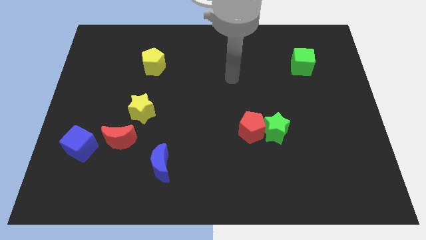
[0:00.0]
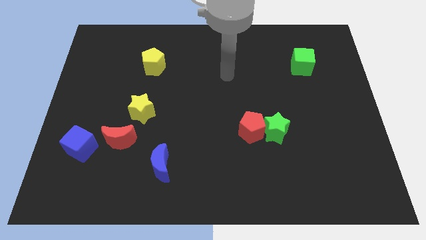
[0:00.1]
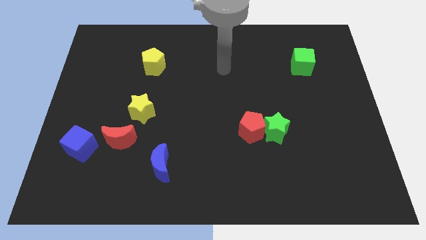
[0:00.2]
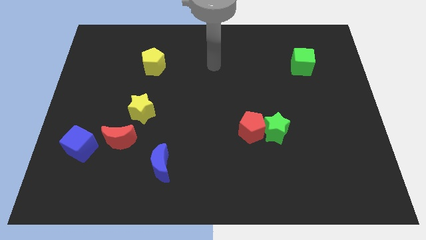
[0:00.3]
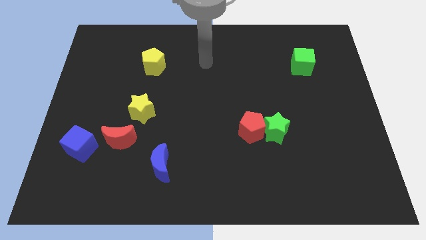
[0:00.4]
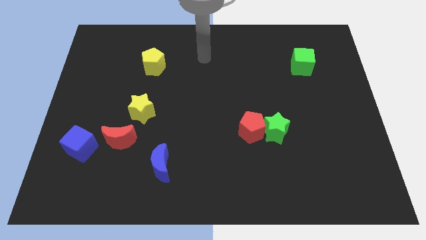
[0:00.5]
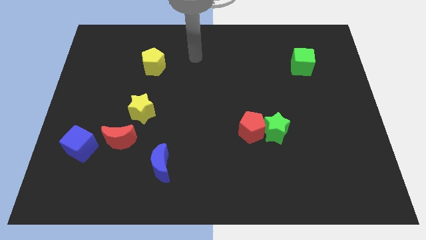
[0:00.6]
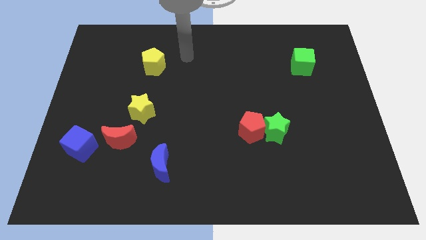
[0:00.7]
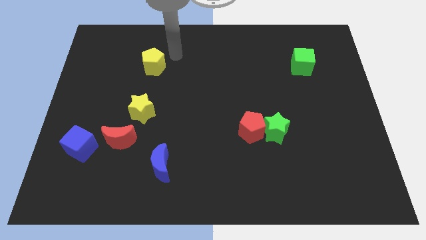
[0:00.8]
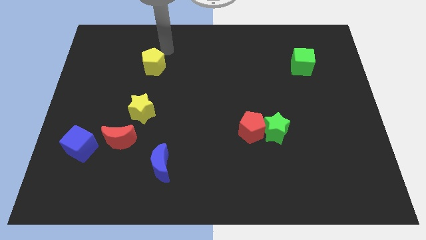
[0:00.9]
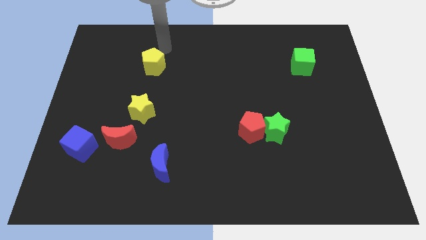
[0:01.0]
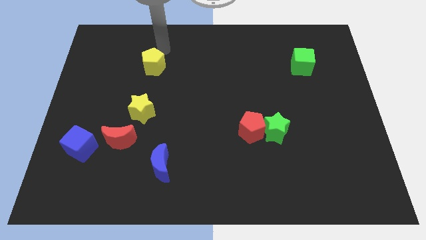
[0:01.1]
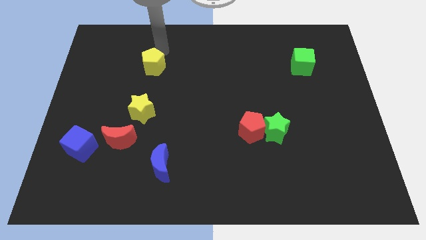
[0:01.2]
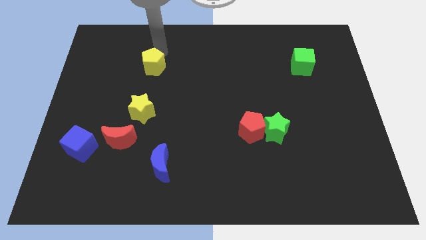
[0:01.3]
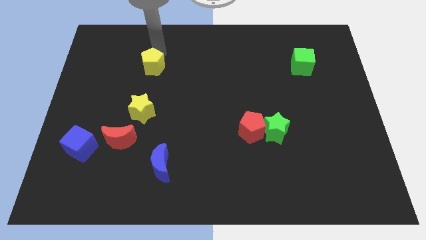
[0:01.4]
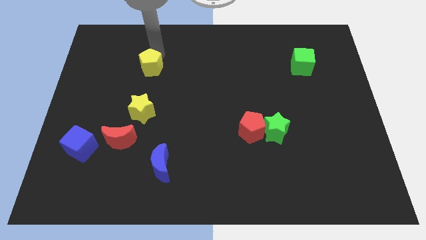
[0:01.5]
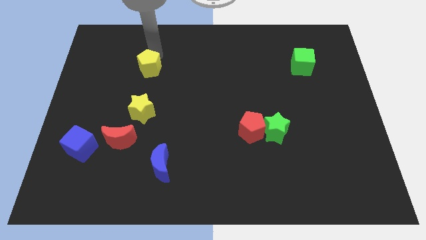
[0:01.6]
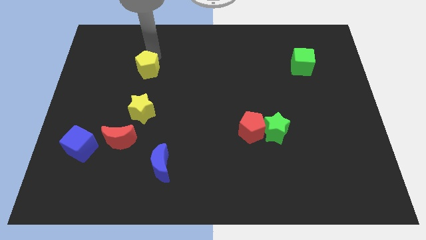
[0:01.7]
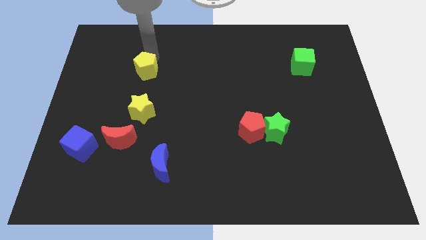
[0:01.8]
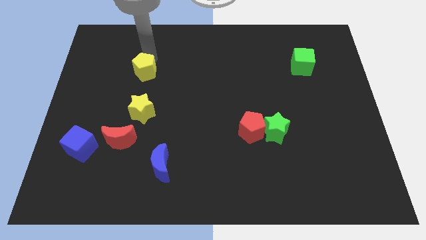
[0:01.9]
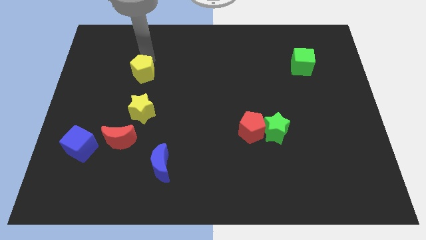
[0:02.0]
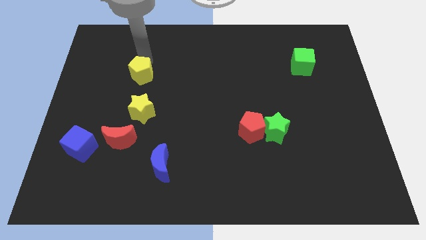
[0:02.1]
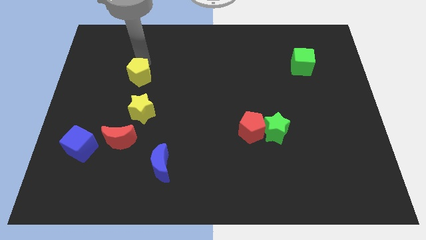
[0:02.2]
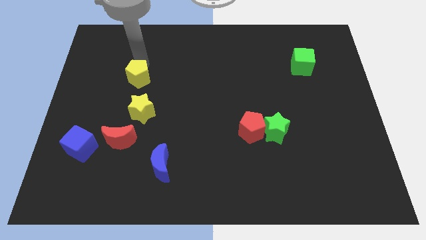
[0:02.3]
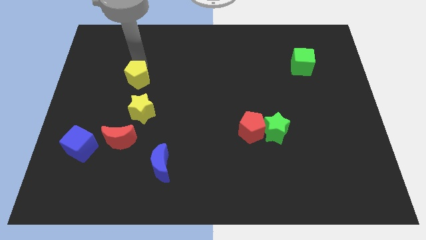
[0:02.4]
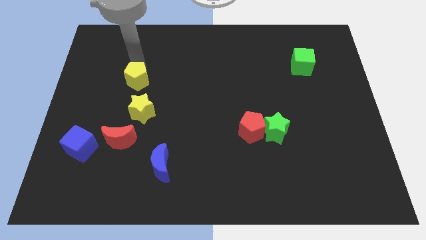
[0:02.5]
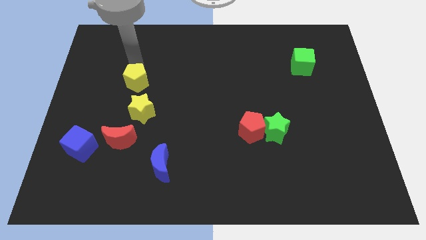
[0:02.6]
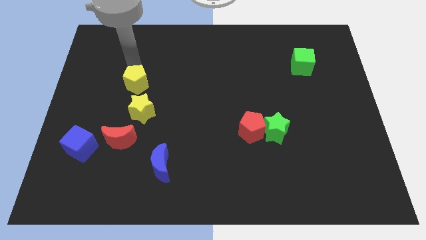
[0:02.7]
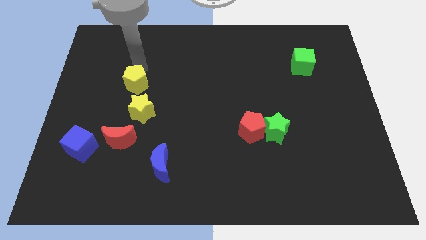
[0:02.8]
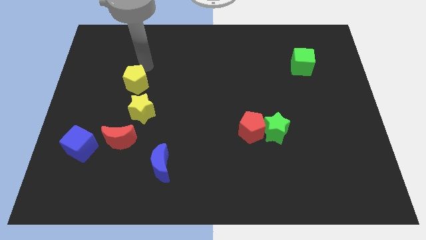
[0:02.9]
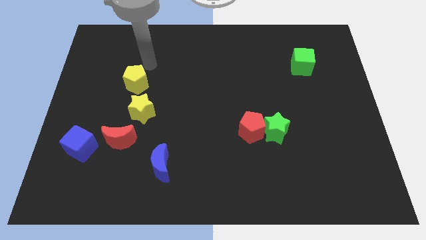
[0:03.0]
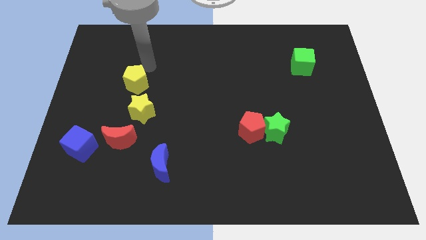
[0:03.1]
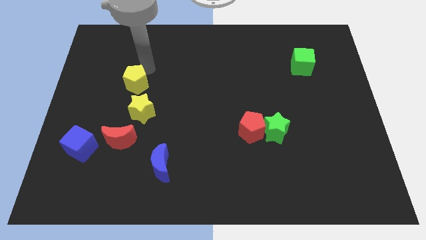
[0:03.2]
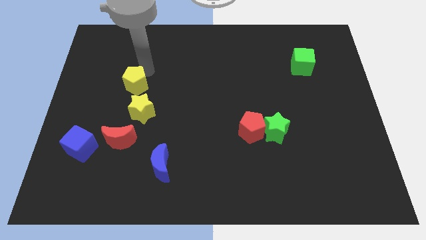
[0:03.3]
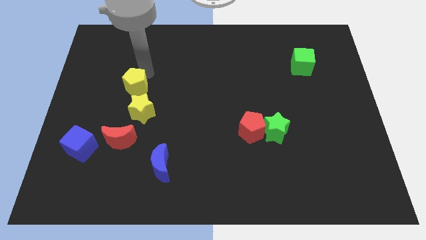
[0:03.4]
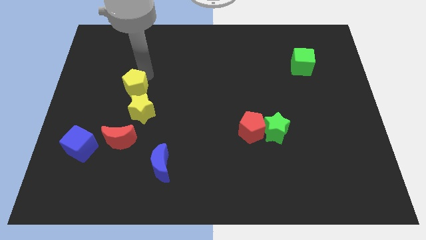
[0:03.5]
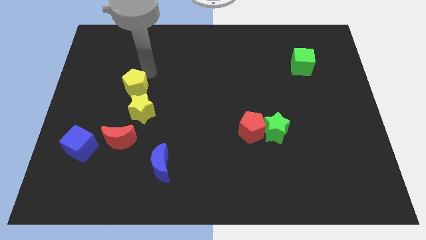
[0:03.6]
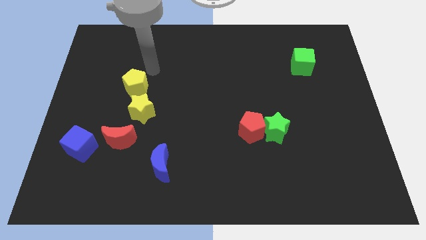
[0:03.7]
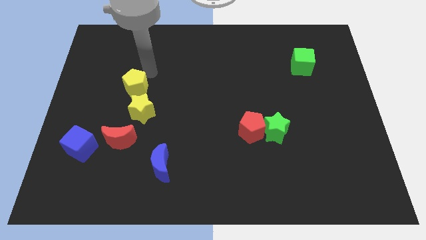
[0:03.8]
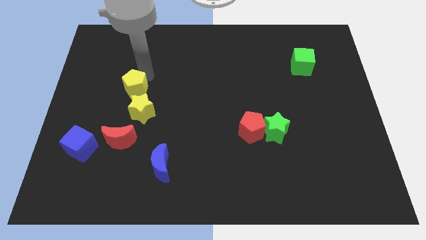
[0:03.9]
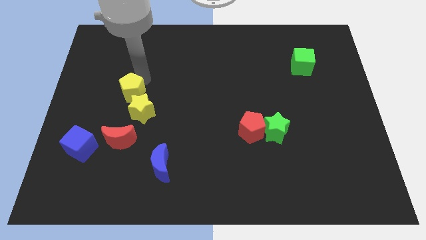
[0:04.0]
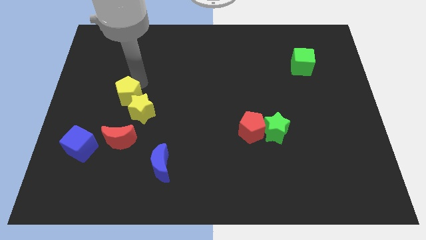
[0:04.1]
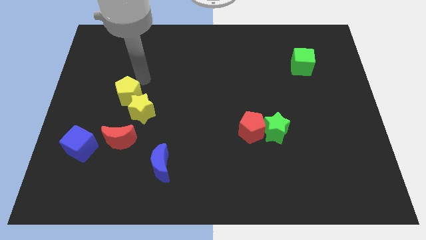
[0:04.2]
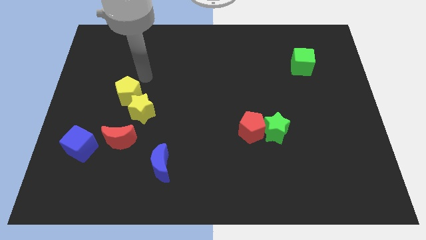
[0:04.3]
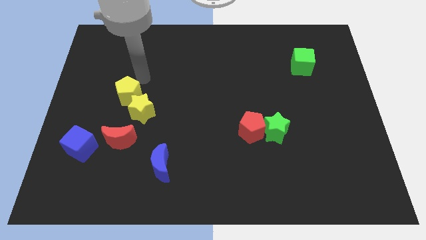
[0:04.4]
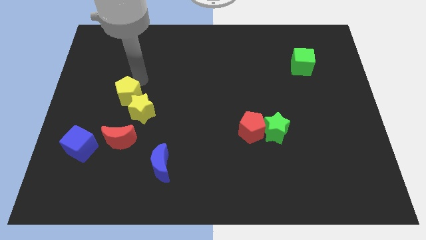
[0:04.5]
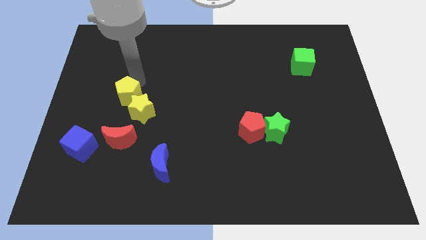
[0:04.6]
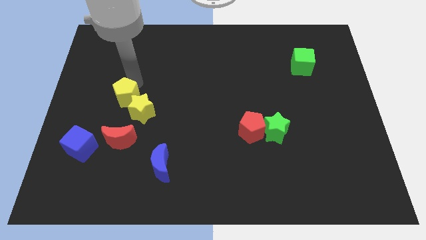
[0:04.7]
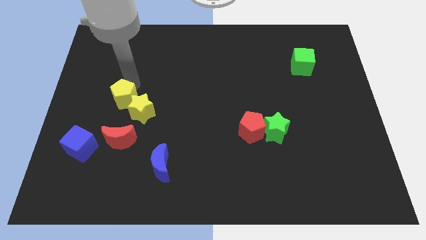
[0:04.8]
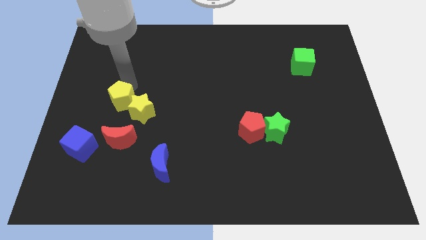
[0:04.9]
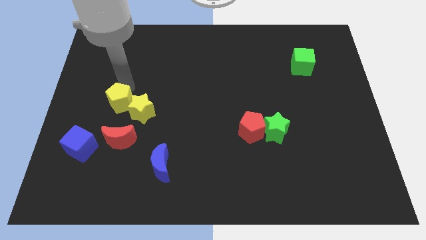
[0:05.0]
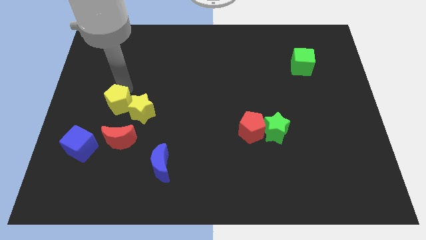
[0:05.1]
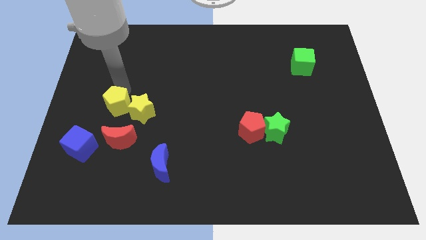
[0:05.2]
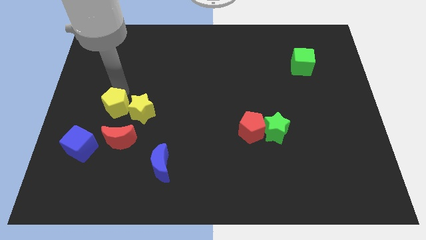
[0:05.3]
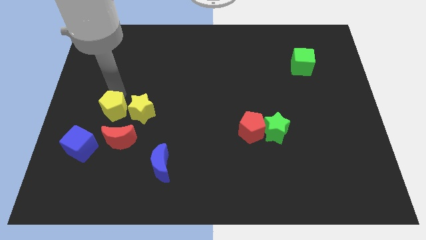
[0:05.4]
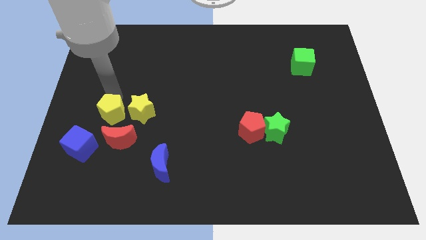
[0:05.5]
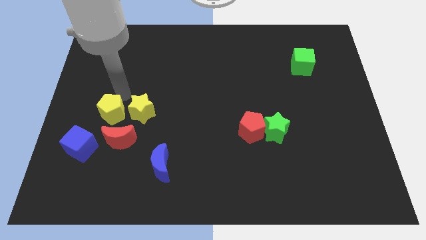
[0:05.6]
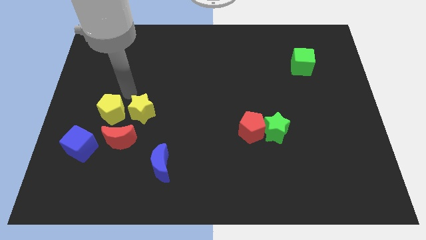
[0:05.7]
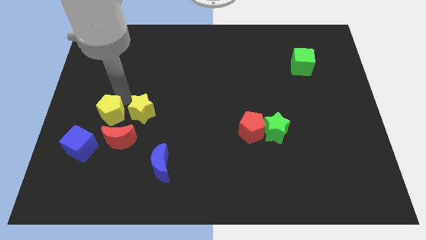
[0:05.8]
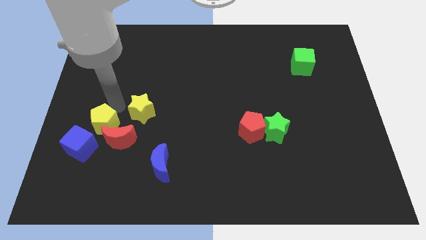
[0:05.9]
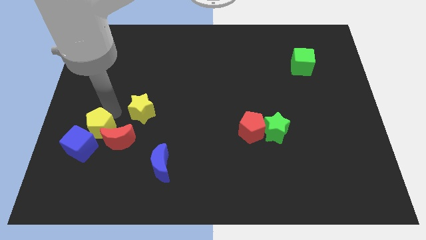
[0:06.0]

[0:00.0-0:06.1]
put the yellow pentagon towards the blue cube

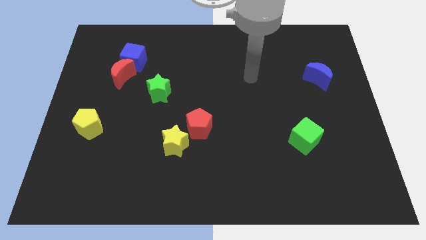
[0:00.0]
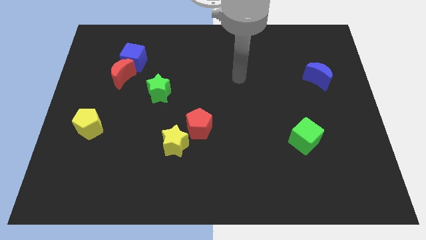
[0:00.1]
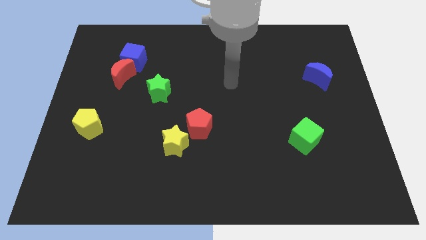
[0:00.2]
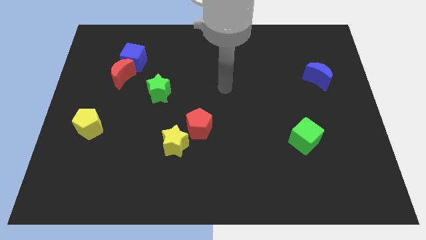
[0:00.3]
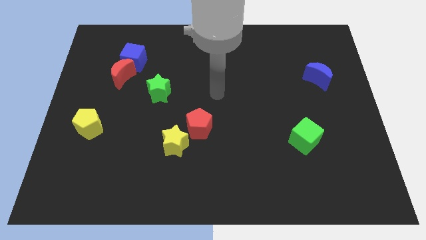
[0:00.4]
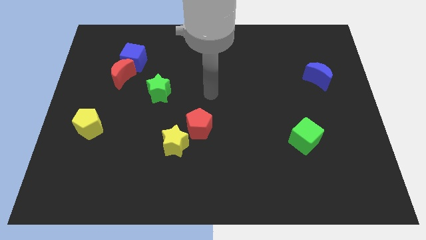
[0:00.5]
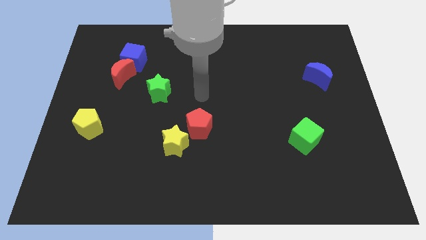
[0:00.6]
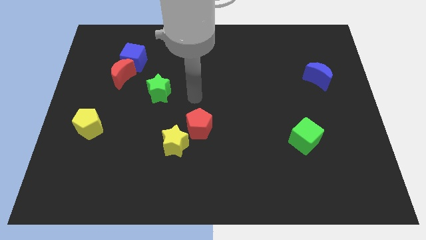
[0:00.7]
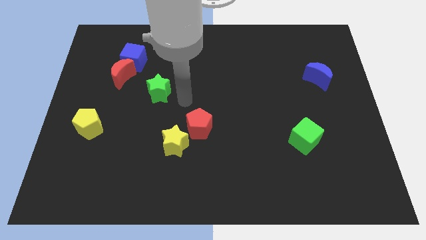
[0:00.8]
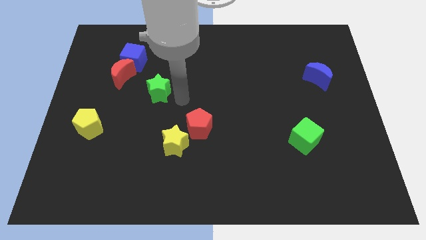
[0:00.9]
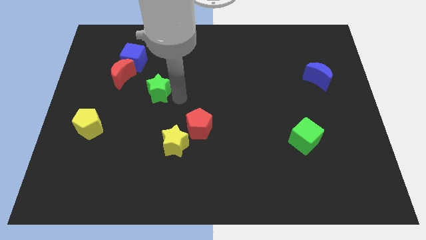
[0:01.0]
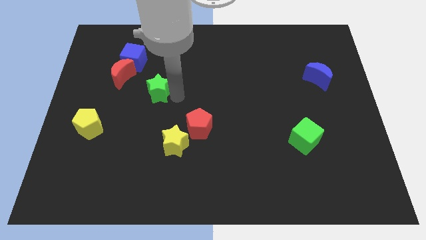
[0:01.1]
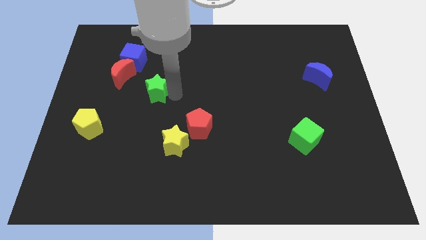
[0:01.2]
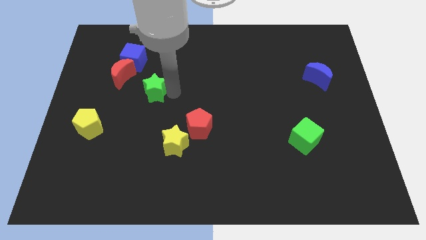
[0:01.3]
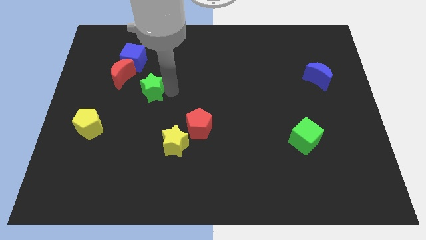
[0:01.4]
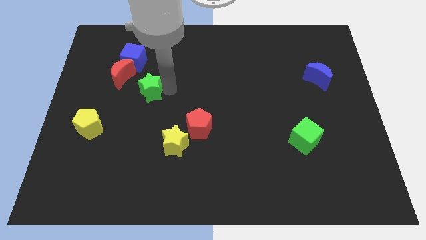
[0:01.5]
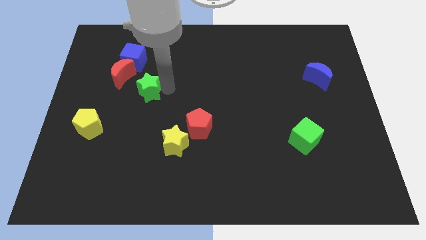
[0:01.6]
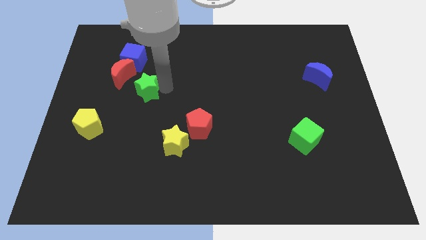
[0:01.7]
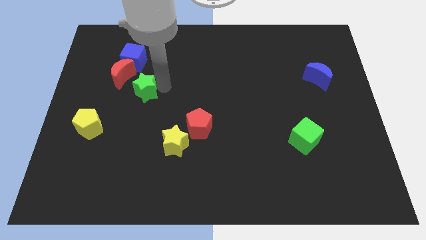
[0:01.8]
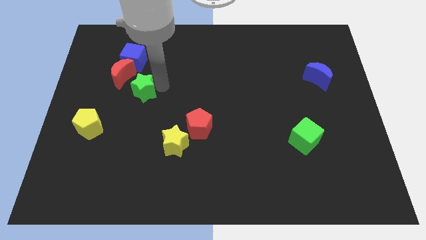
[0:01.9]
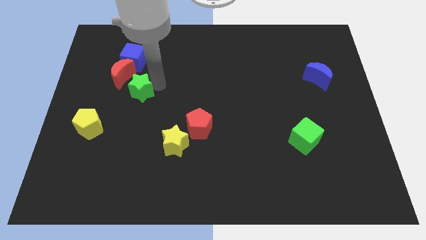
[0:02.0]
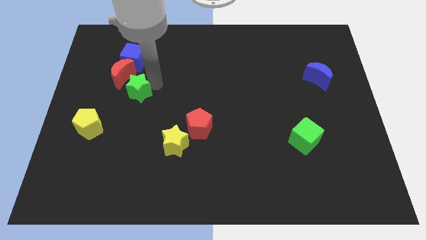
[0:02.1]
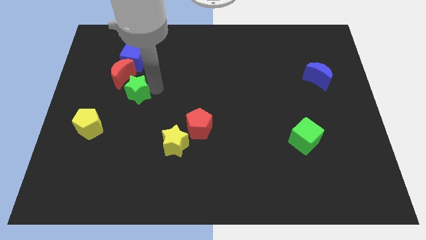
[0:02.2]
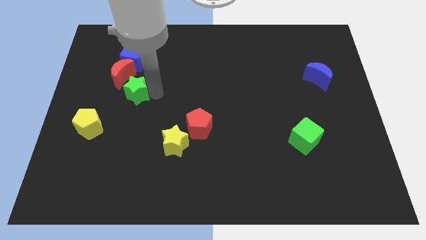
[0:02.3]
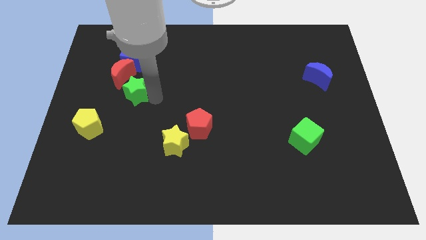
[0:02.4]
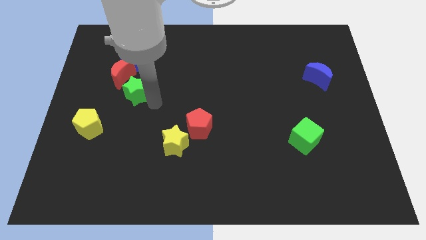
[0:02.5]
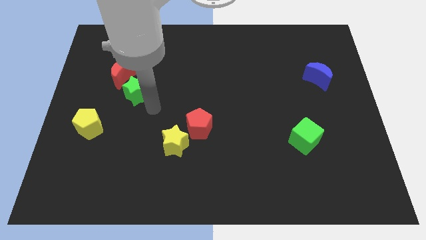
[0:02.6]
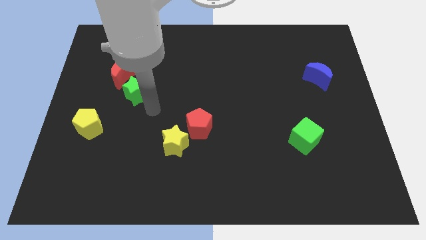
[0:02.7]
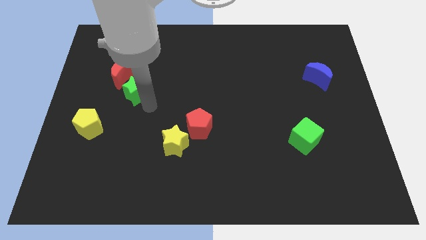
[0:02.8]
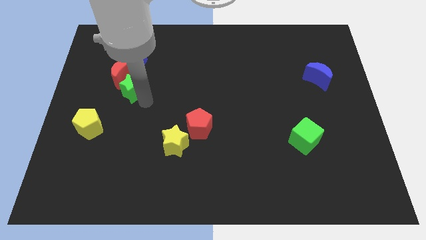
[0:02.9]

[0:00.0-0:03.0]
push the green star to the red moon
